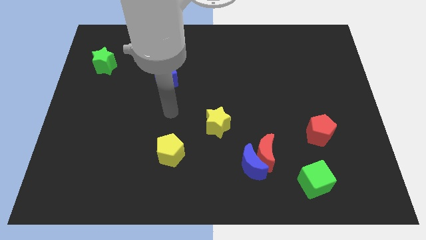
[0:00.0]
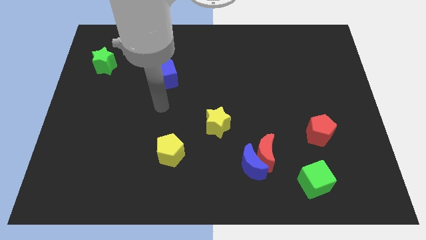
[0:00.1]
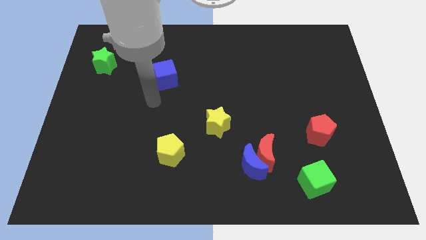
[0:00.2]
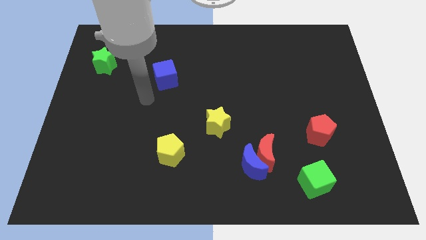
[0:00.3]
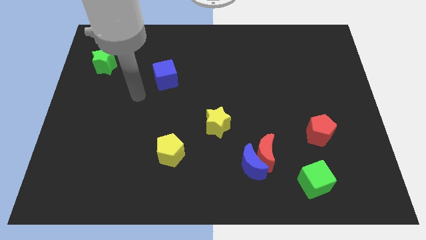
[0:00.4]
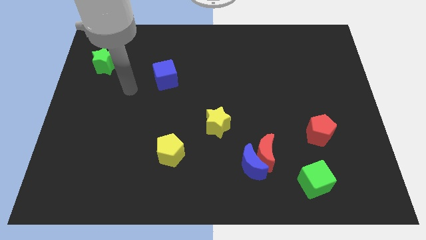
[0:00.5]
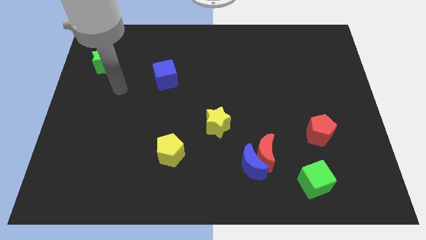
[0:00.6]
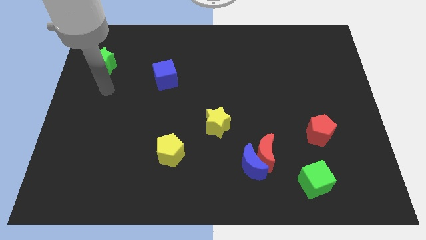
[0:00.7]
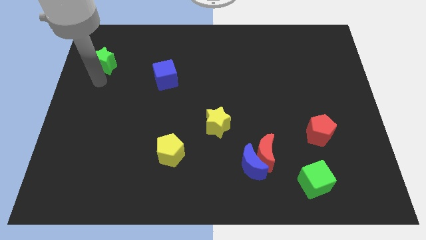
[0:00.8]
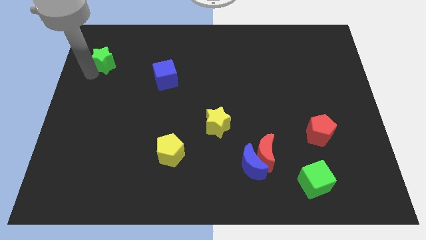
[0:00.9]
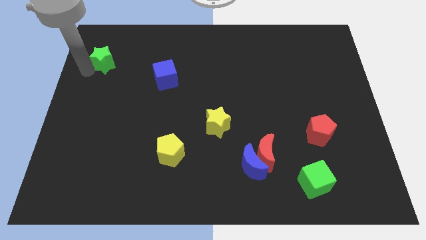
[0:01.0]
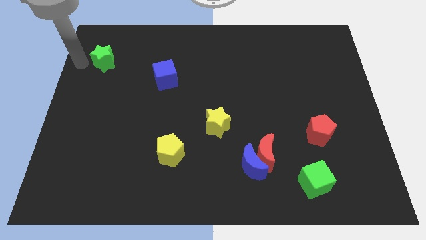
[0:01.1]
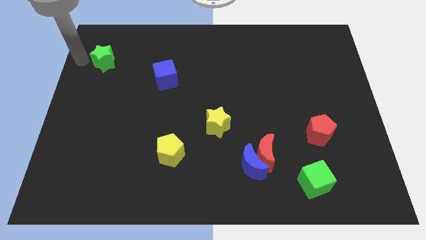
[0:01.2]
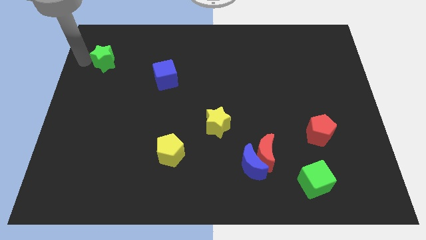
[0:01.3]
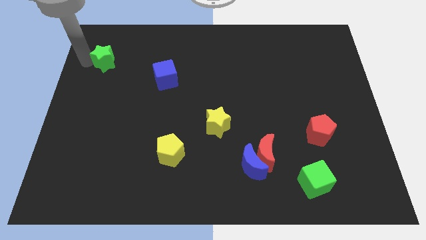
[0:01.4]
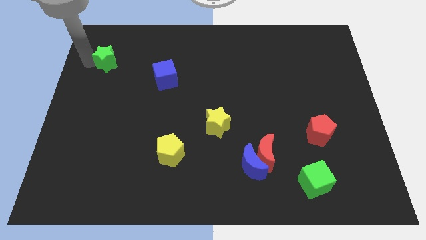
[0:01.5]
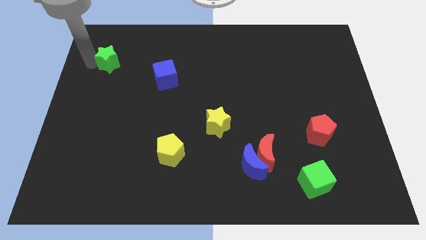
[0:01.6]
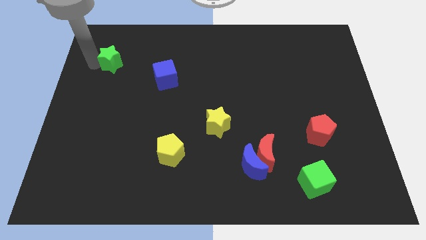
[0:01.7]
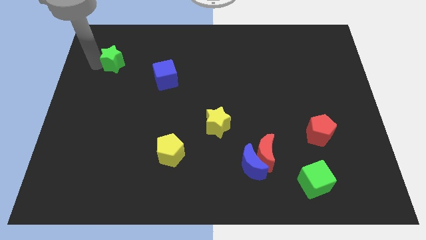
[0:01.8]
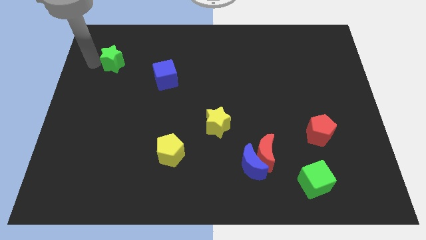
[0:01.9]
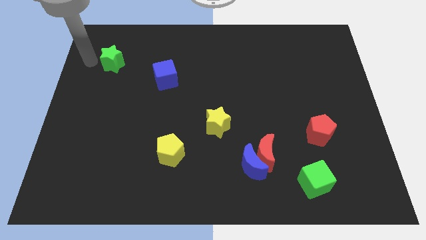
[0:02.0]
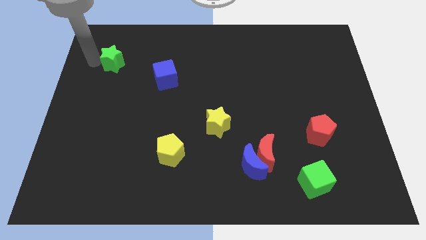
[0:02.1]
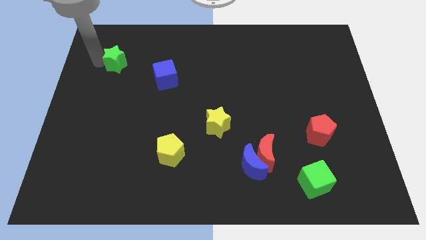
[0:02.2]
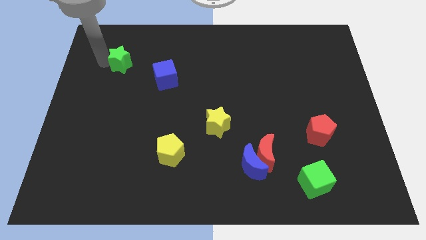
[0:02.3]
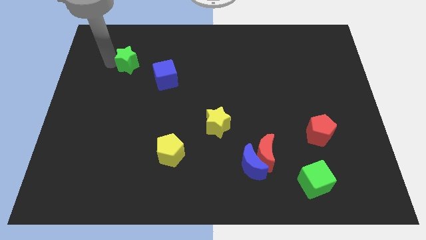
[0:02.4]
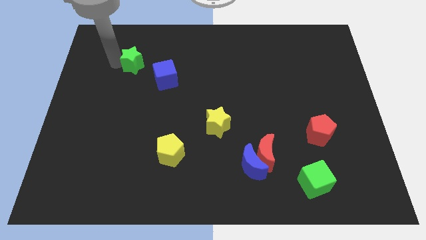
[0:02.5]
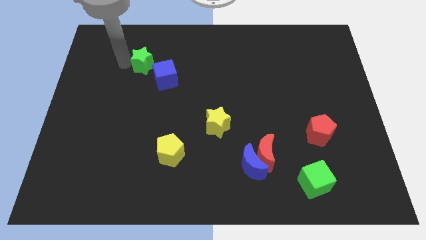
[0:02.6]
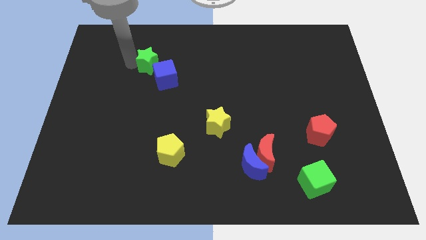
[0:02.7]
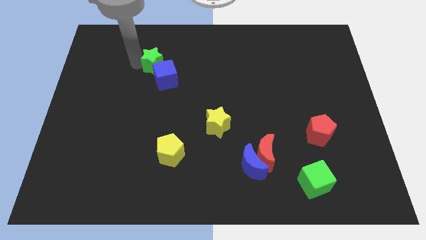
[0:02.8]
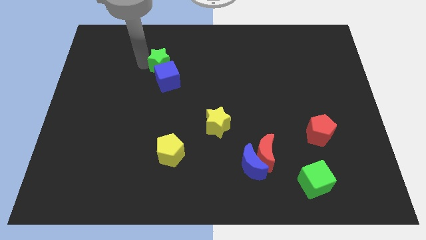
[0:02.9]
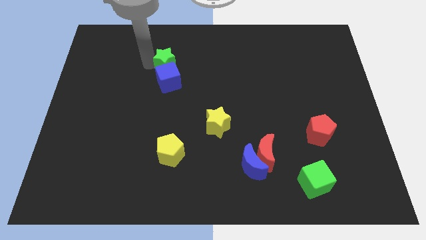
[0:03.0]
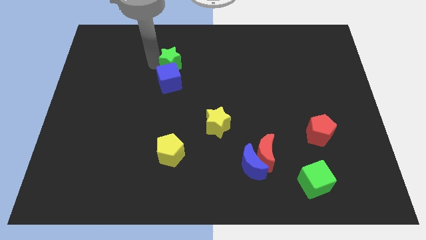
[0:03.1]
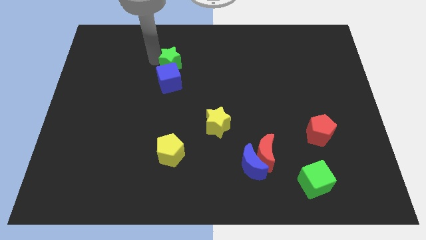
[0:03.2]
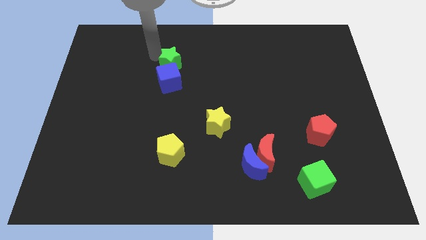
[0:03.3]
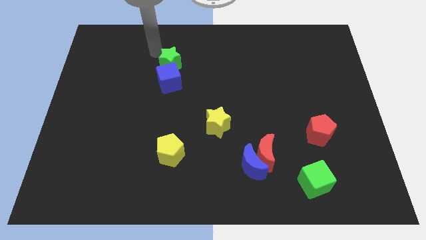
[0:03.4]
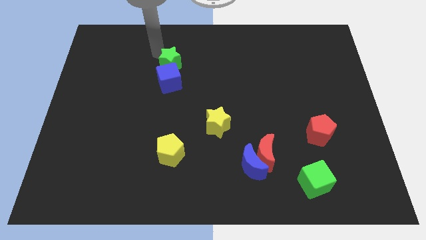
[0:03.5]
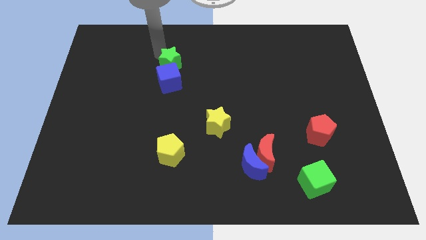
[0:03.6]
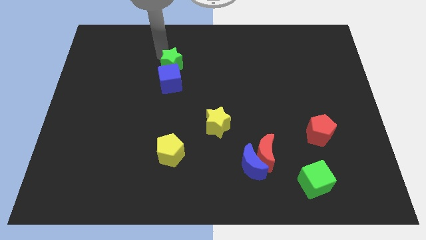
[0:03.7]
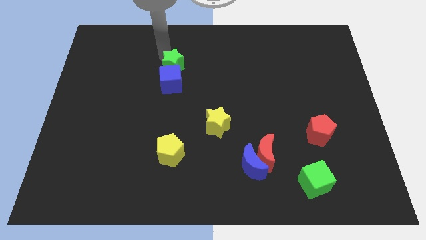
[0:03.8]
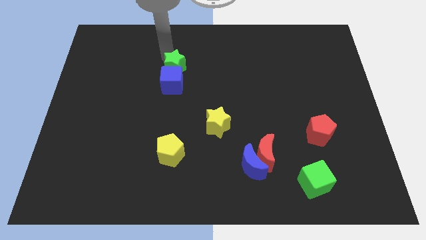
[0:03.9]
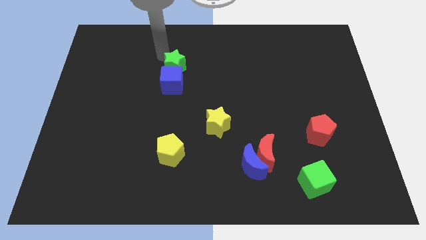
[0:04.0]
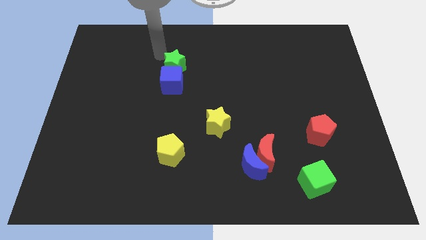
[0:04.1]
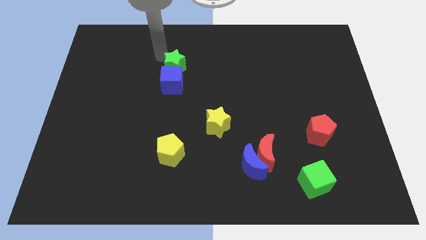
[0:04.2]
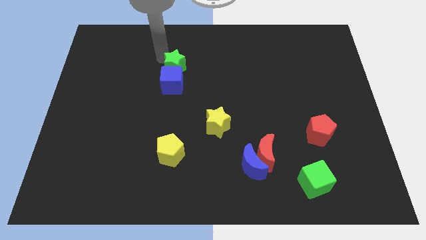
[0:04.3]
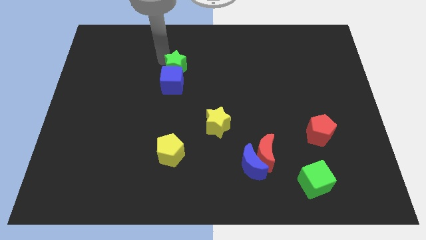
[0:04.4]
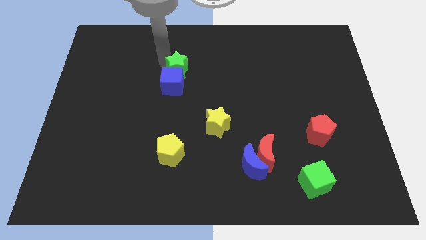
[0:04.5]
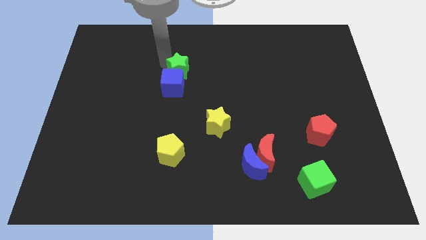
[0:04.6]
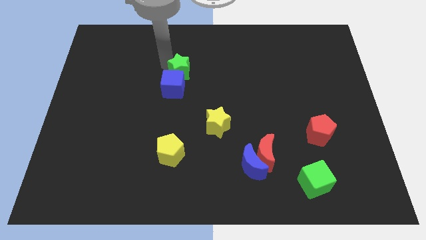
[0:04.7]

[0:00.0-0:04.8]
push the green star to the center
